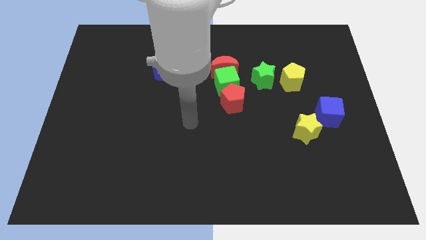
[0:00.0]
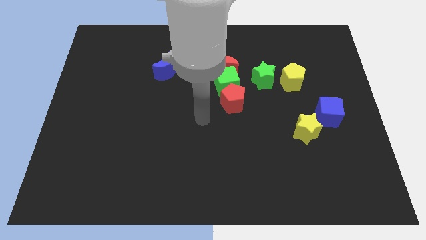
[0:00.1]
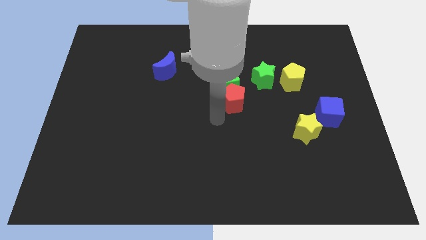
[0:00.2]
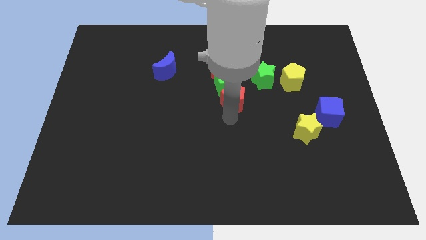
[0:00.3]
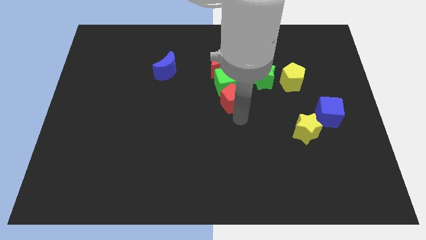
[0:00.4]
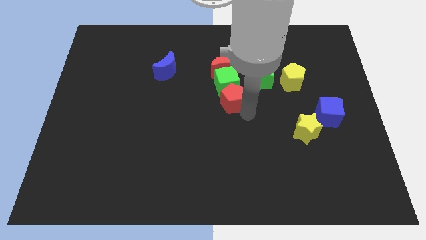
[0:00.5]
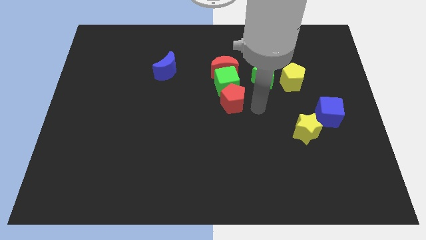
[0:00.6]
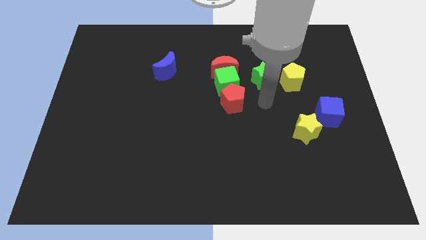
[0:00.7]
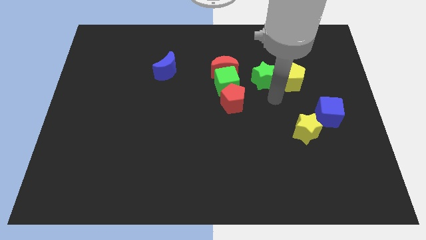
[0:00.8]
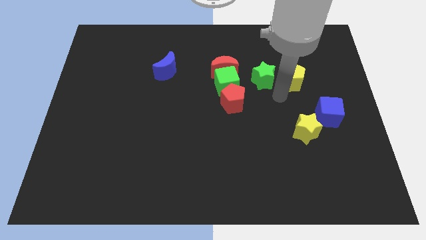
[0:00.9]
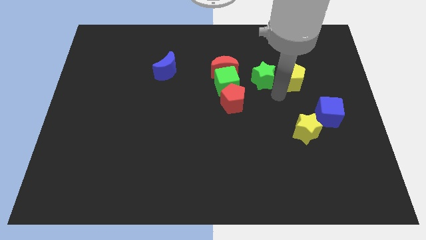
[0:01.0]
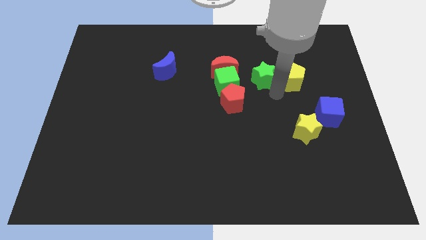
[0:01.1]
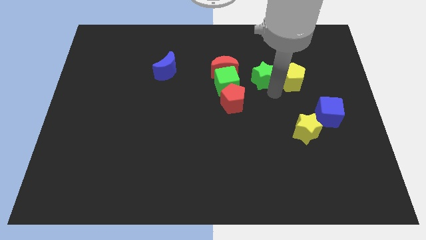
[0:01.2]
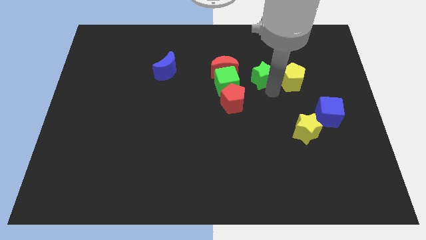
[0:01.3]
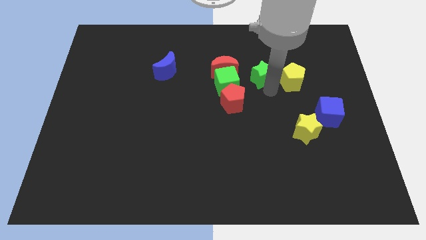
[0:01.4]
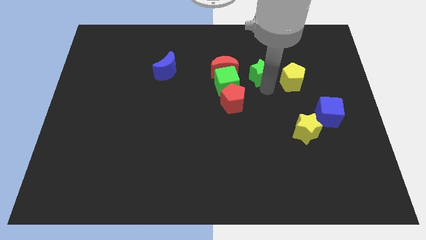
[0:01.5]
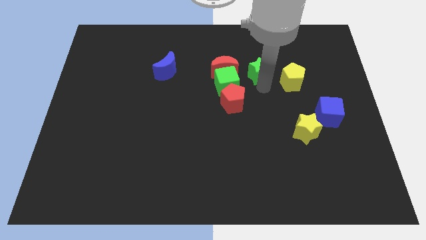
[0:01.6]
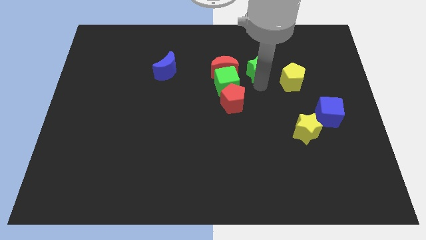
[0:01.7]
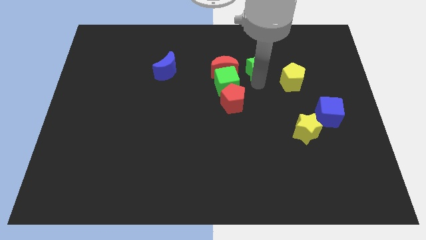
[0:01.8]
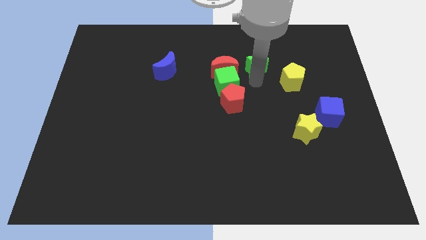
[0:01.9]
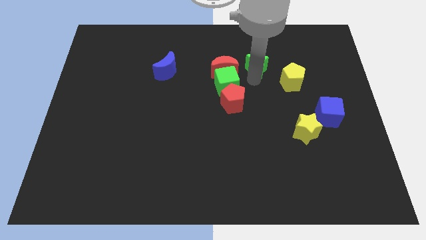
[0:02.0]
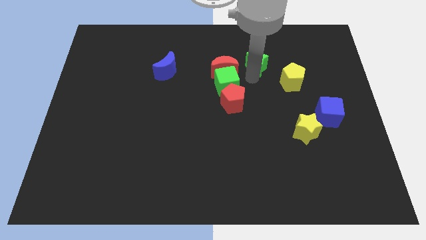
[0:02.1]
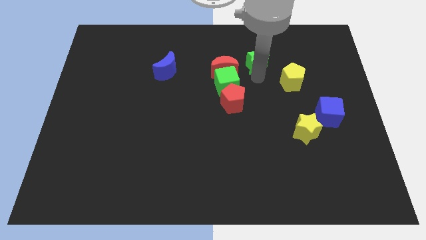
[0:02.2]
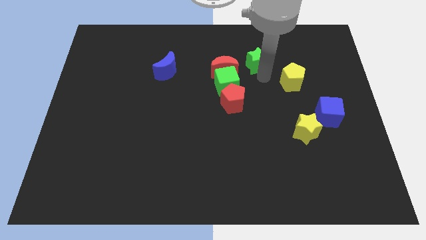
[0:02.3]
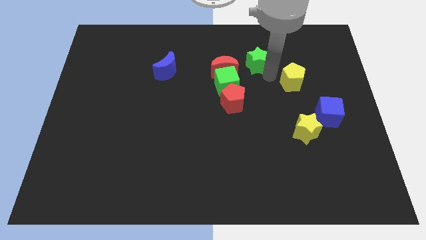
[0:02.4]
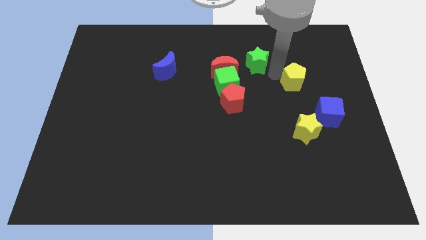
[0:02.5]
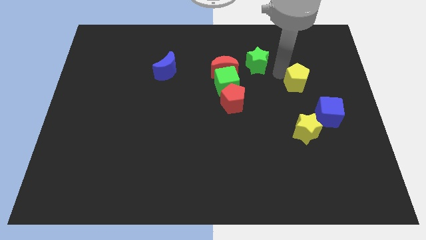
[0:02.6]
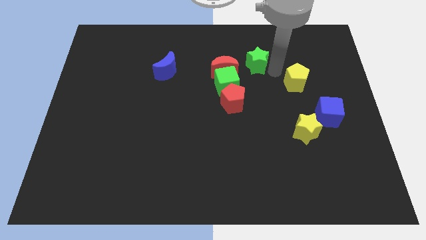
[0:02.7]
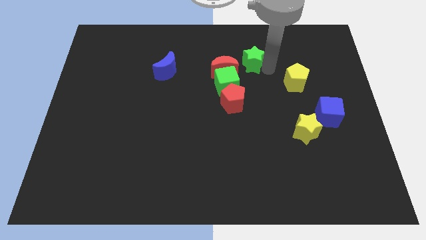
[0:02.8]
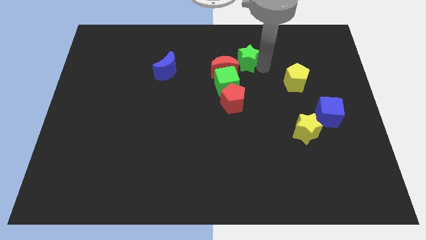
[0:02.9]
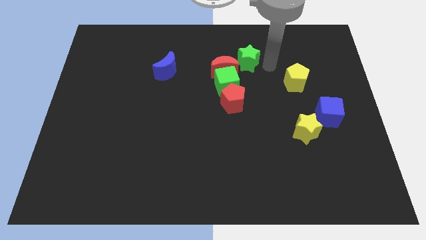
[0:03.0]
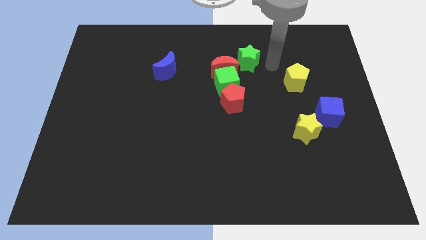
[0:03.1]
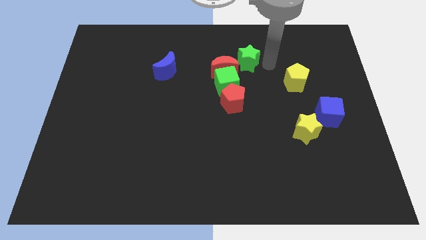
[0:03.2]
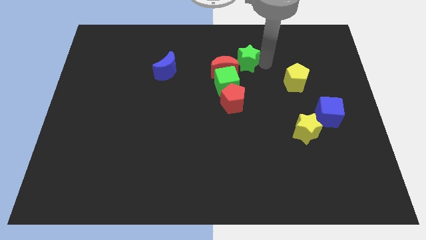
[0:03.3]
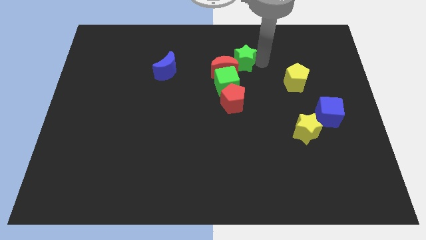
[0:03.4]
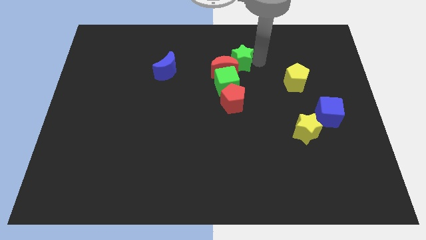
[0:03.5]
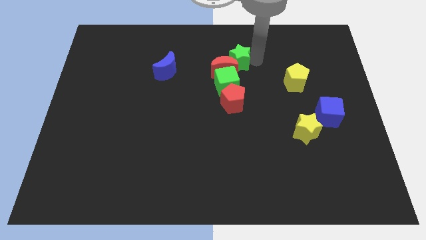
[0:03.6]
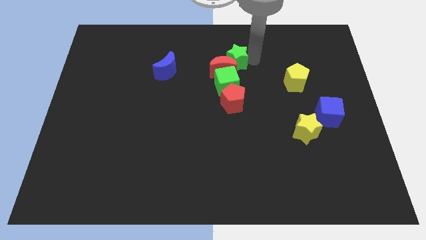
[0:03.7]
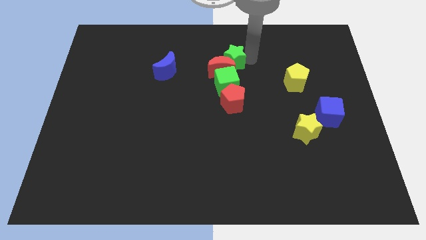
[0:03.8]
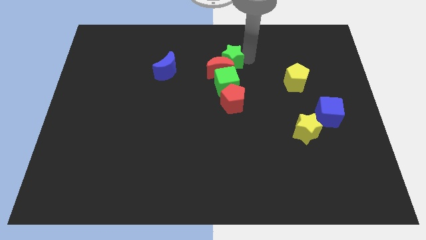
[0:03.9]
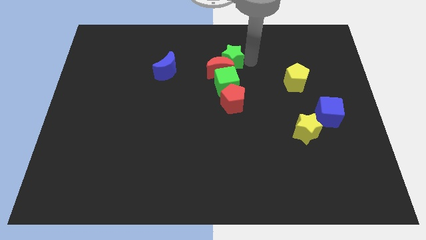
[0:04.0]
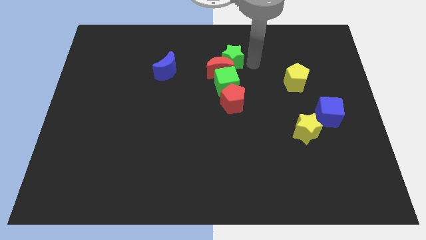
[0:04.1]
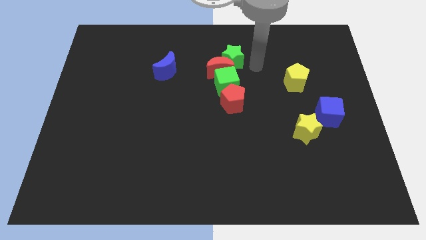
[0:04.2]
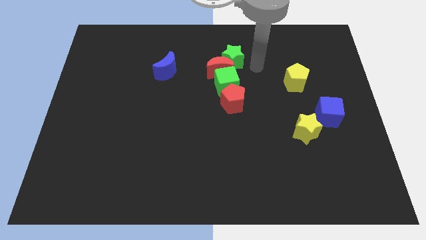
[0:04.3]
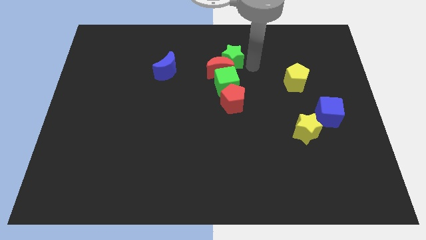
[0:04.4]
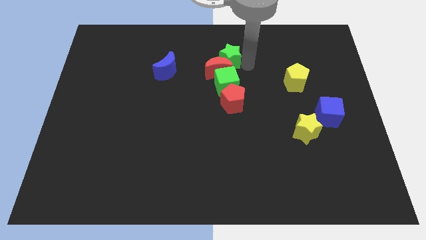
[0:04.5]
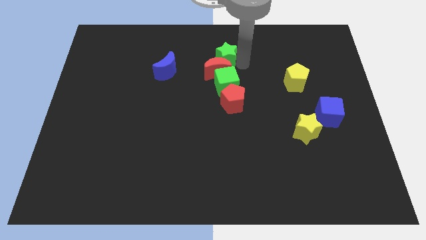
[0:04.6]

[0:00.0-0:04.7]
slightly slide the green star left

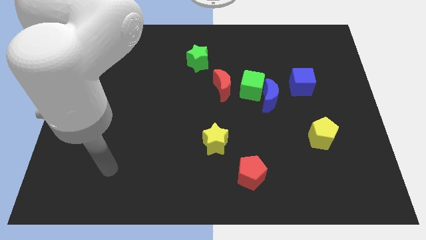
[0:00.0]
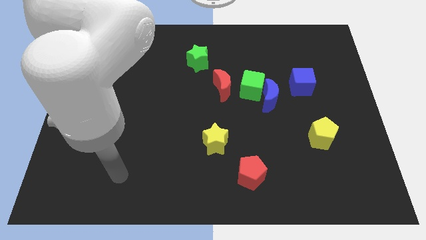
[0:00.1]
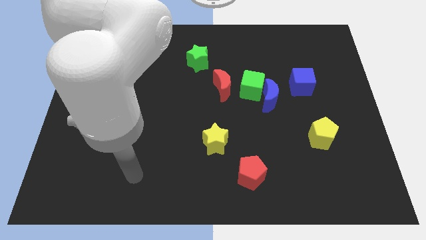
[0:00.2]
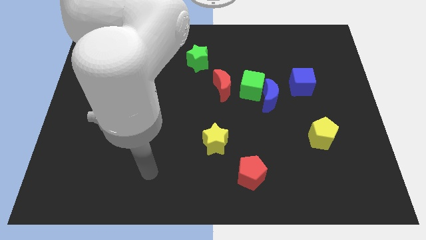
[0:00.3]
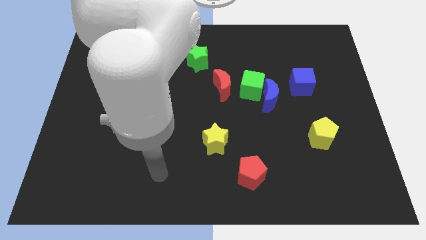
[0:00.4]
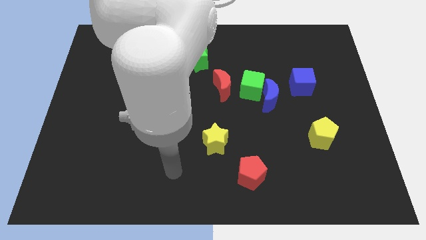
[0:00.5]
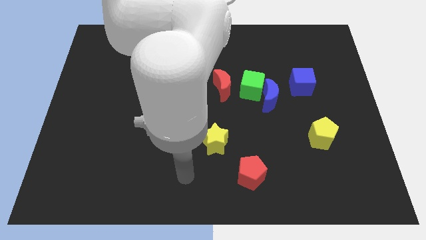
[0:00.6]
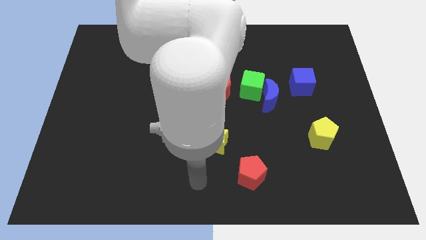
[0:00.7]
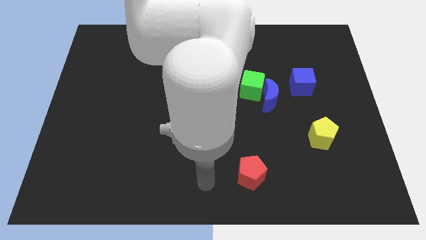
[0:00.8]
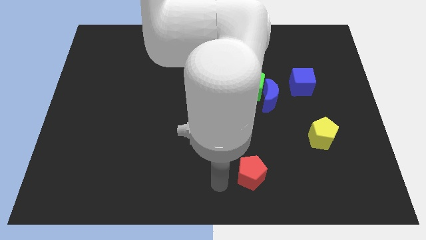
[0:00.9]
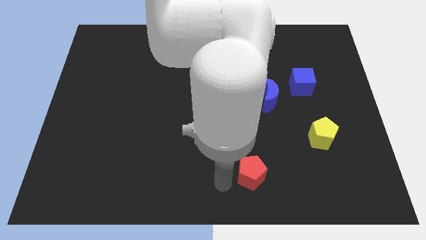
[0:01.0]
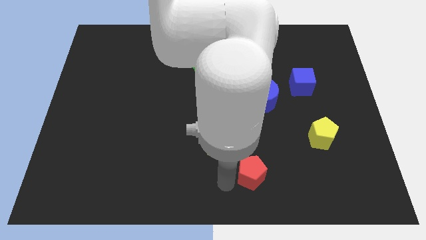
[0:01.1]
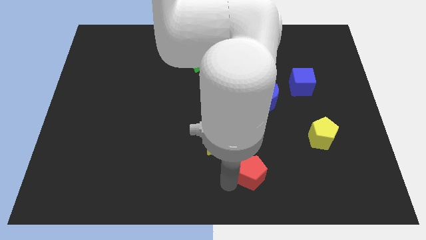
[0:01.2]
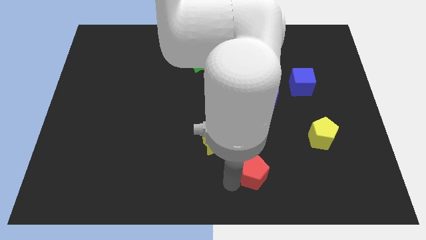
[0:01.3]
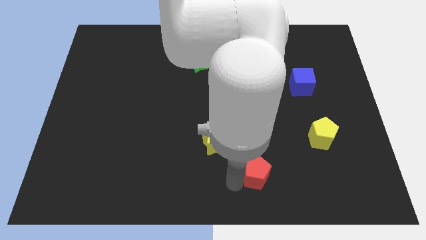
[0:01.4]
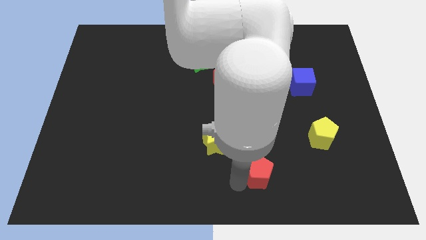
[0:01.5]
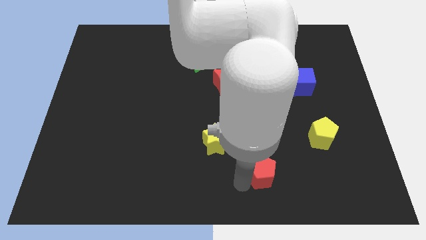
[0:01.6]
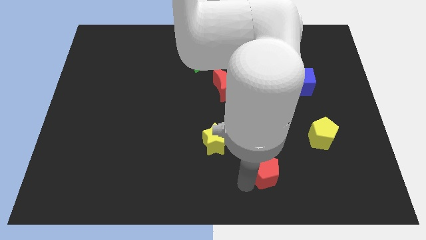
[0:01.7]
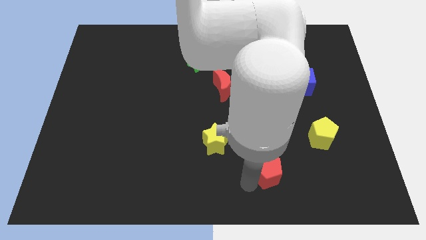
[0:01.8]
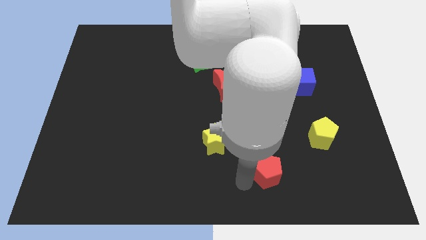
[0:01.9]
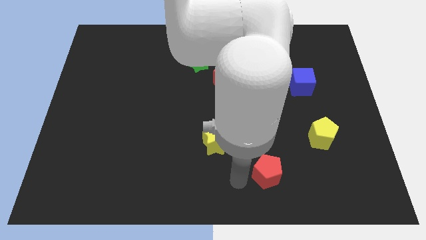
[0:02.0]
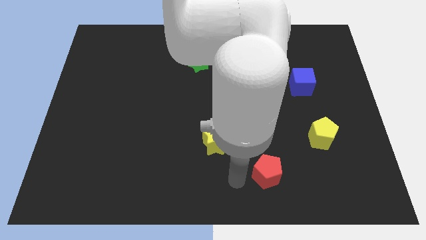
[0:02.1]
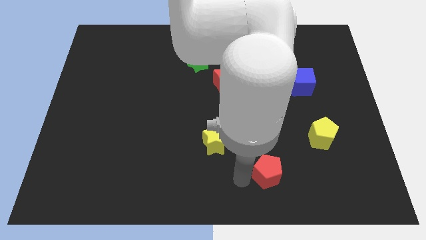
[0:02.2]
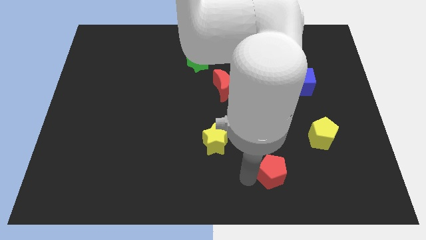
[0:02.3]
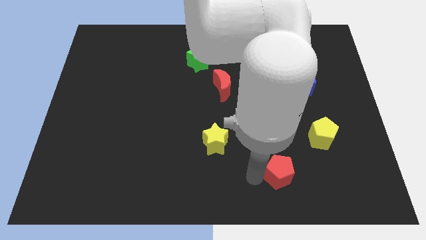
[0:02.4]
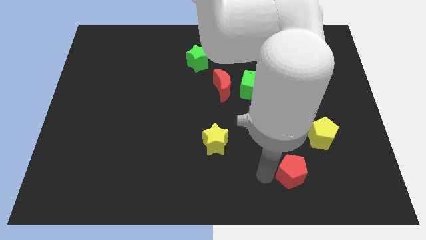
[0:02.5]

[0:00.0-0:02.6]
slightly slide the red pentagon to the right

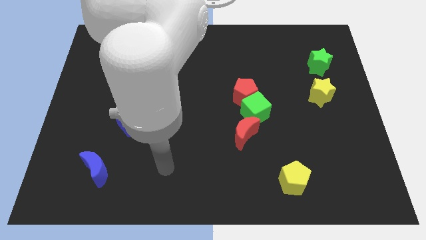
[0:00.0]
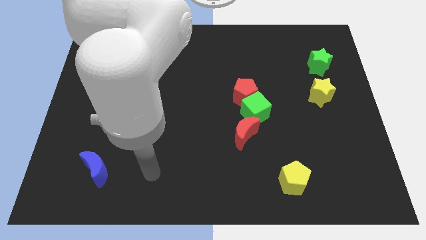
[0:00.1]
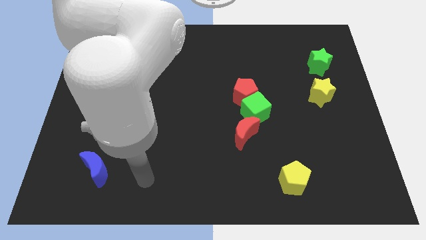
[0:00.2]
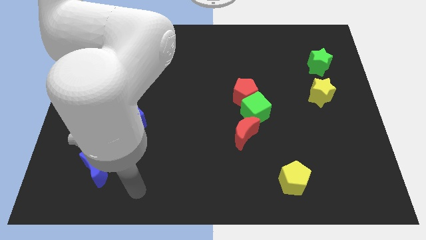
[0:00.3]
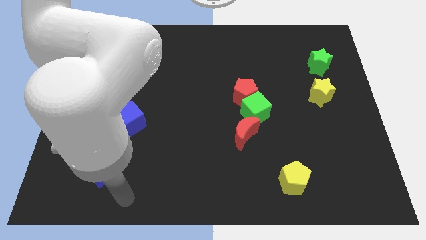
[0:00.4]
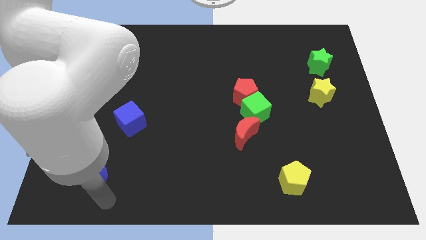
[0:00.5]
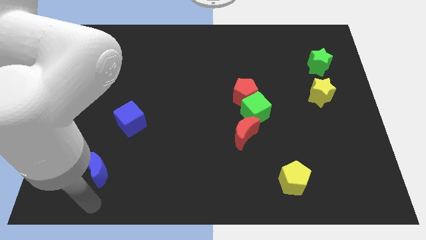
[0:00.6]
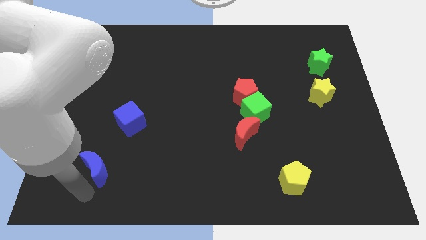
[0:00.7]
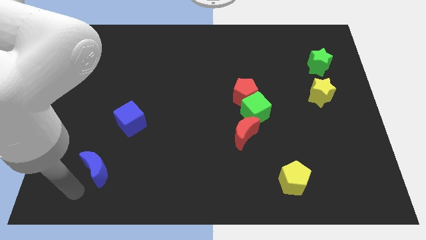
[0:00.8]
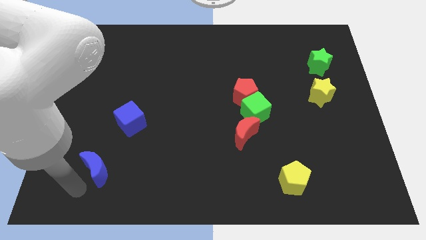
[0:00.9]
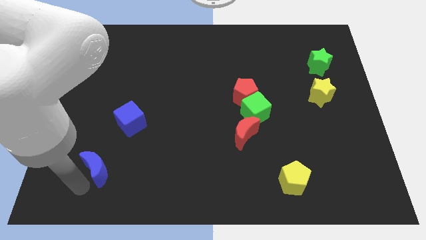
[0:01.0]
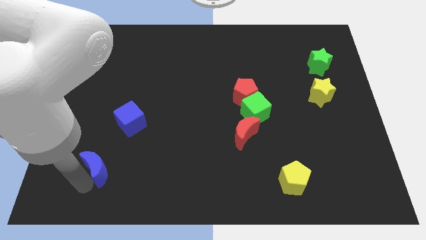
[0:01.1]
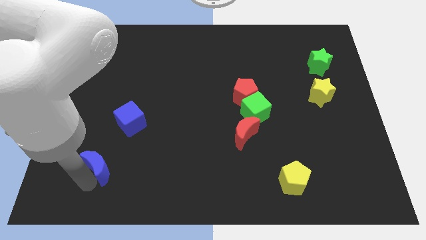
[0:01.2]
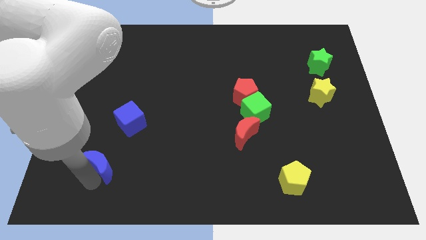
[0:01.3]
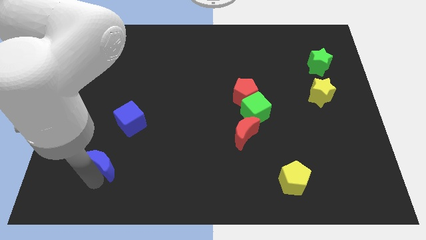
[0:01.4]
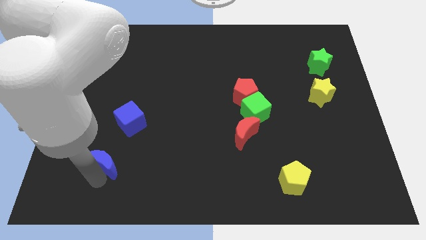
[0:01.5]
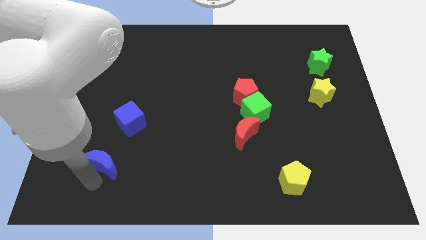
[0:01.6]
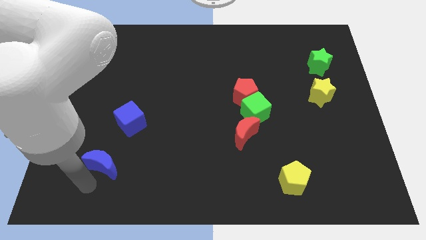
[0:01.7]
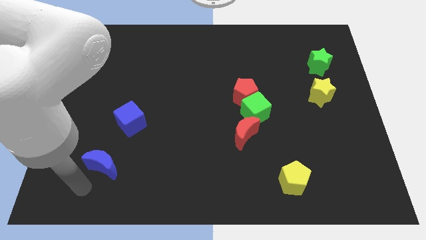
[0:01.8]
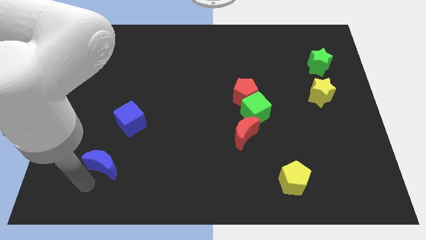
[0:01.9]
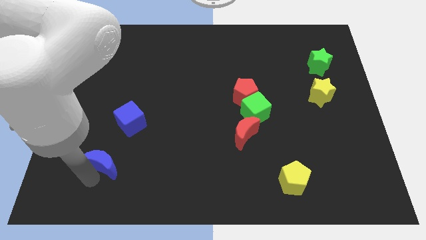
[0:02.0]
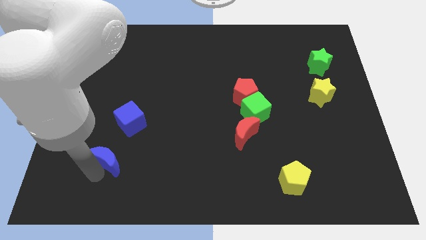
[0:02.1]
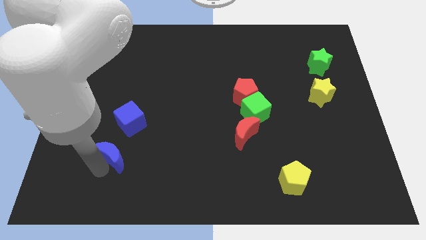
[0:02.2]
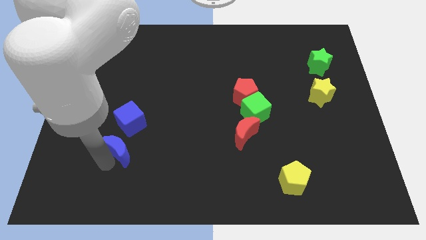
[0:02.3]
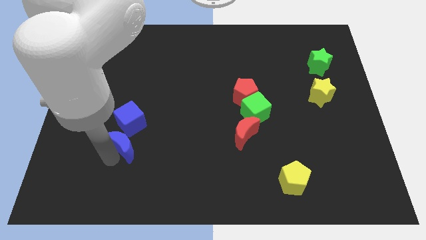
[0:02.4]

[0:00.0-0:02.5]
slightly move the blue moon up and then right
